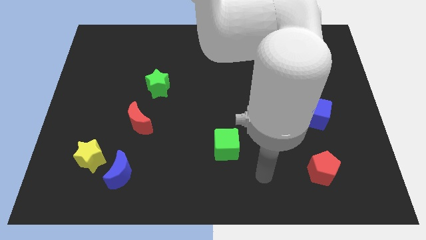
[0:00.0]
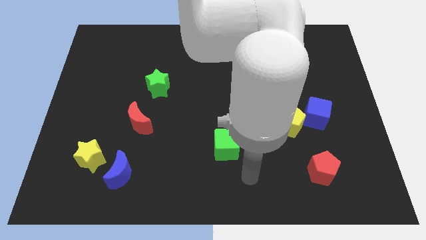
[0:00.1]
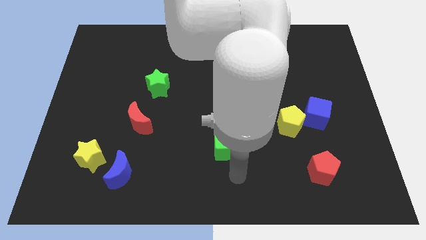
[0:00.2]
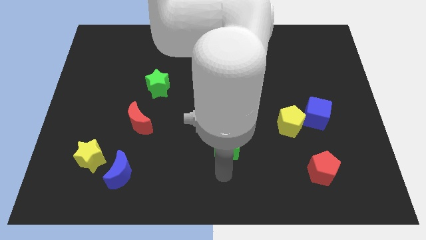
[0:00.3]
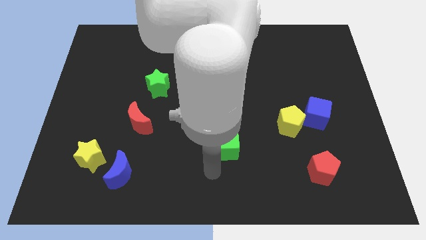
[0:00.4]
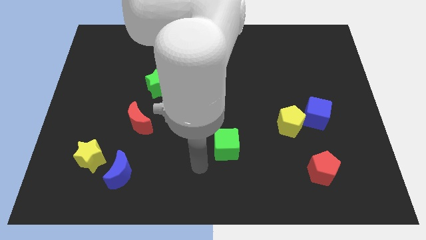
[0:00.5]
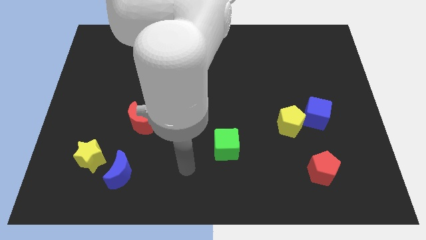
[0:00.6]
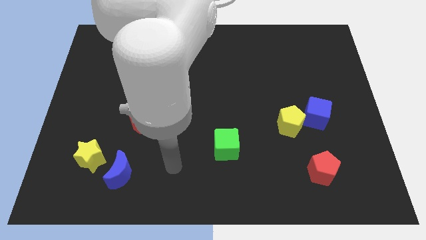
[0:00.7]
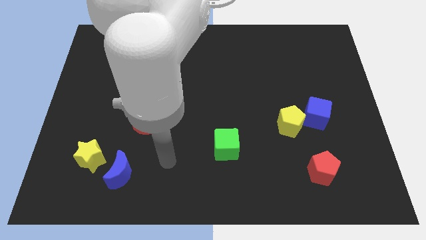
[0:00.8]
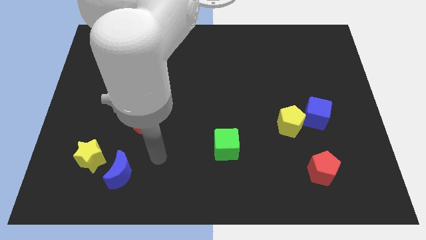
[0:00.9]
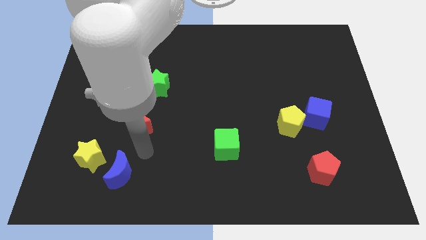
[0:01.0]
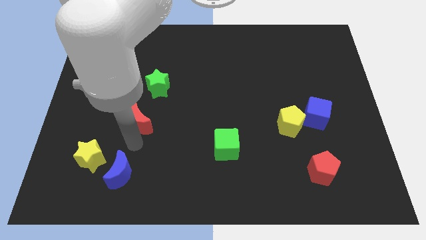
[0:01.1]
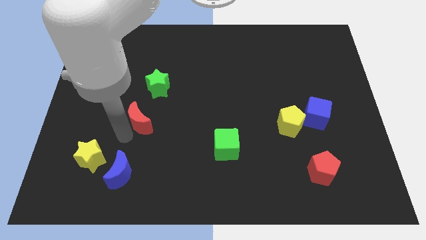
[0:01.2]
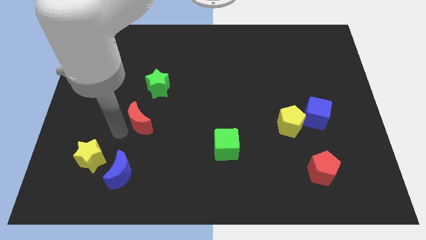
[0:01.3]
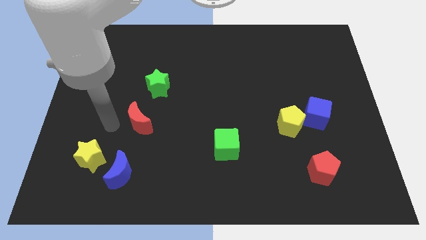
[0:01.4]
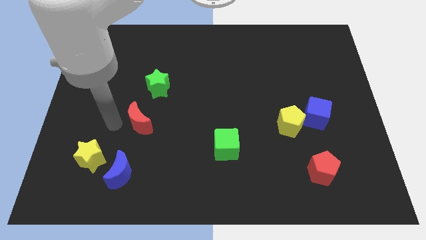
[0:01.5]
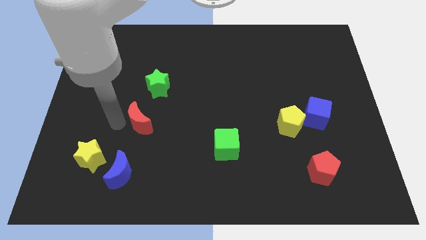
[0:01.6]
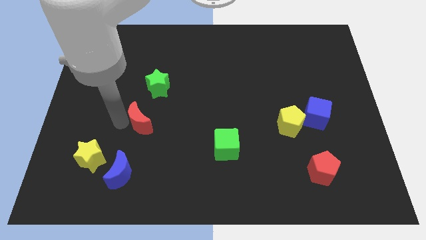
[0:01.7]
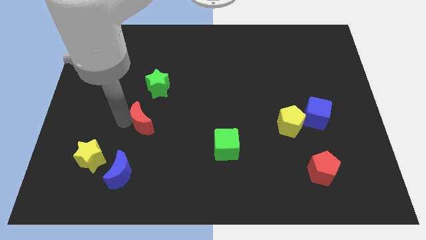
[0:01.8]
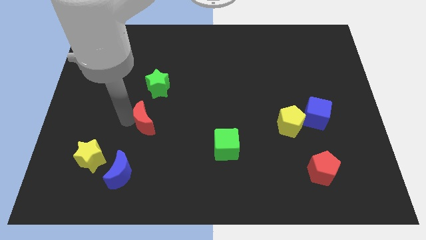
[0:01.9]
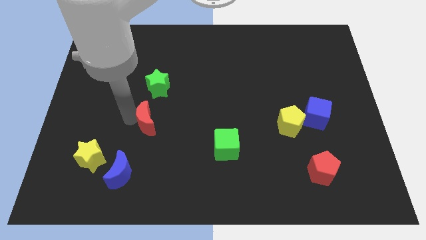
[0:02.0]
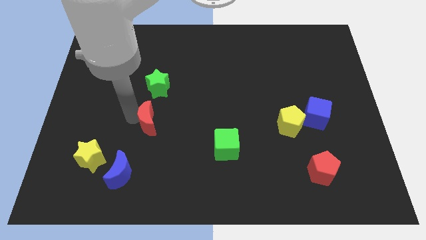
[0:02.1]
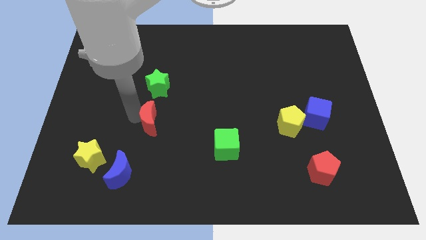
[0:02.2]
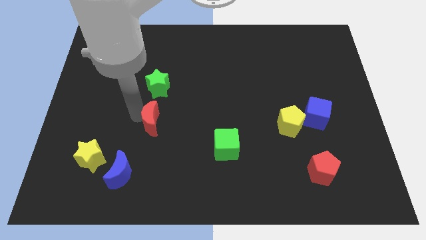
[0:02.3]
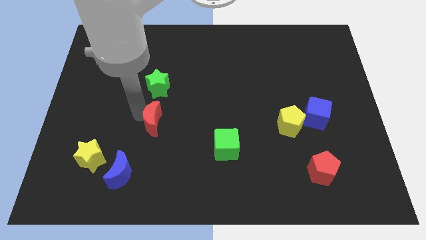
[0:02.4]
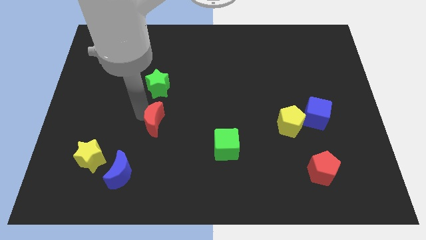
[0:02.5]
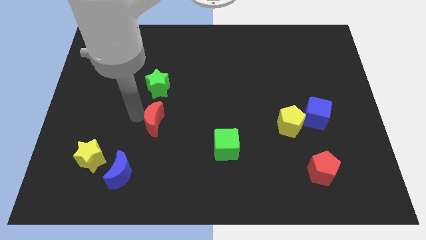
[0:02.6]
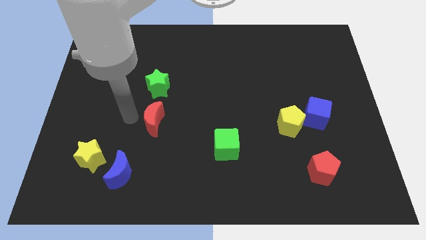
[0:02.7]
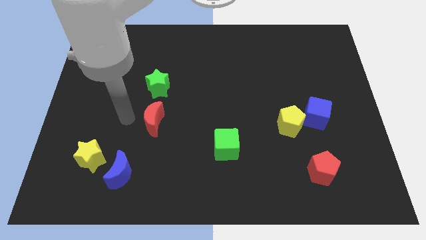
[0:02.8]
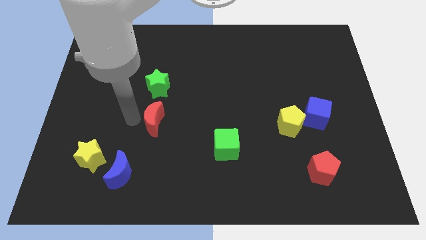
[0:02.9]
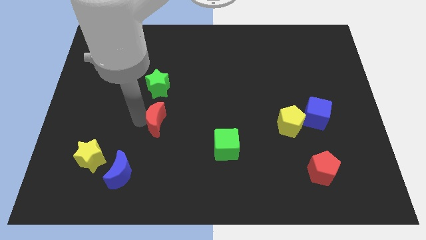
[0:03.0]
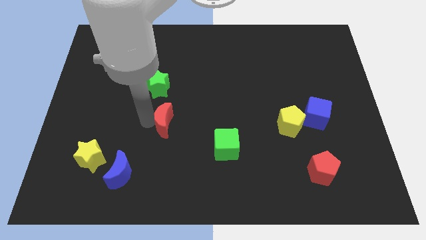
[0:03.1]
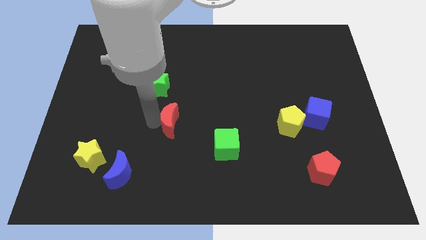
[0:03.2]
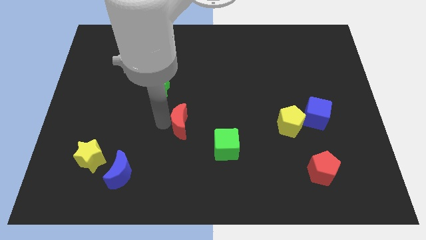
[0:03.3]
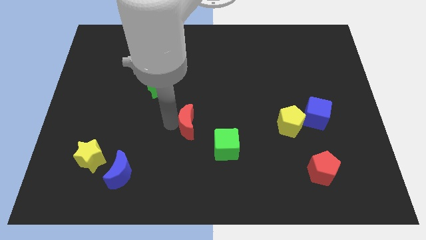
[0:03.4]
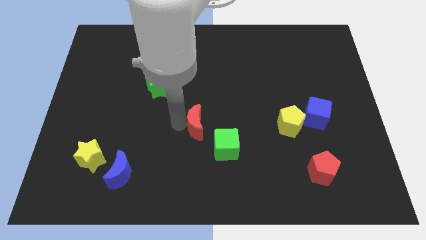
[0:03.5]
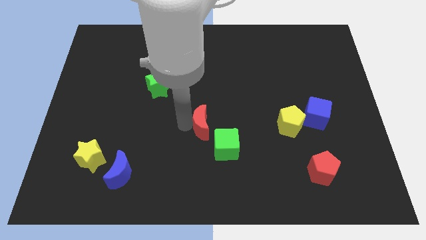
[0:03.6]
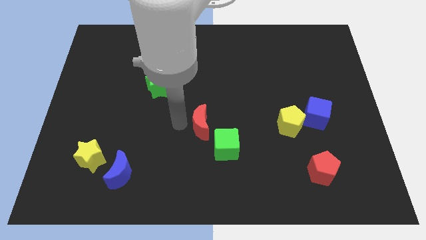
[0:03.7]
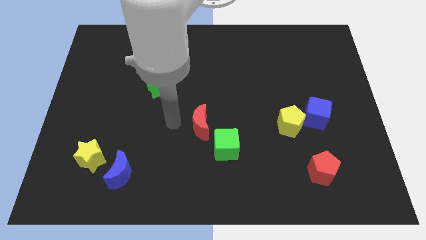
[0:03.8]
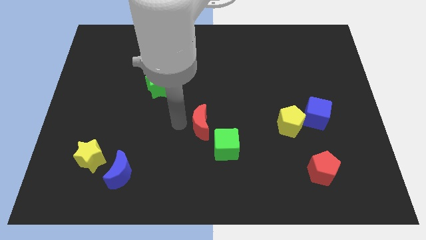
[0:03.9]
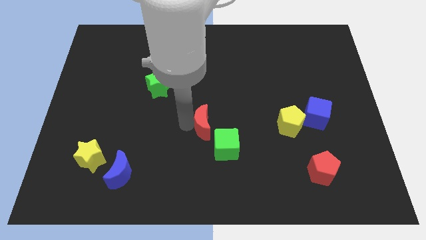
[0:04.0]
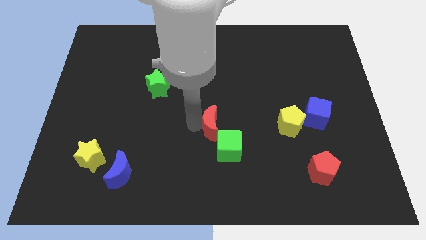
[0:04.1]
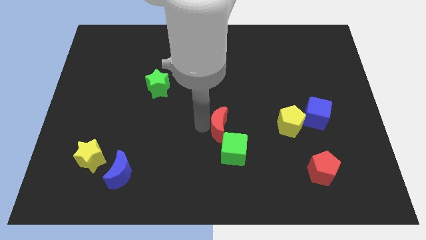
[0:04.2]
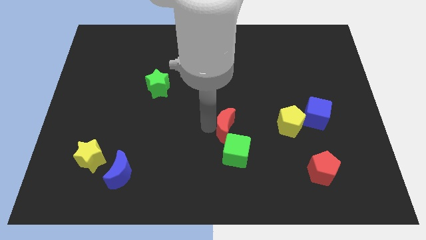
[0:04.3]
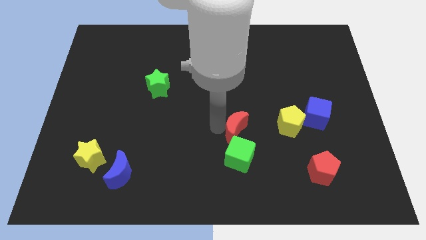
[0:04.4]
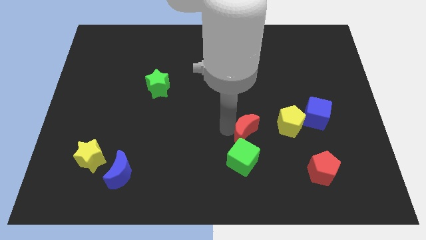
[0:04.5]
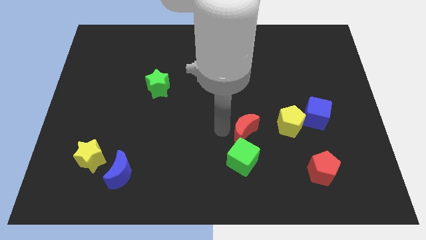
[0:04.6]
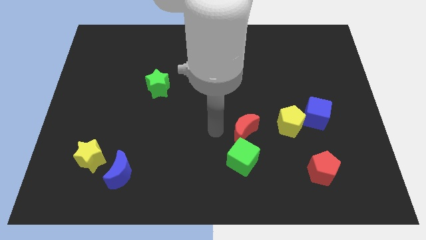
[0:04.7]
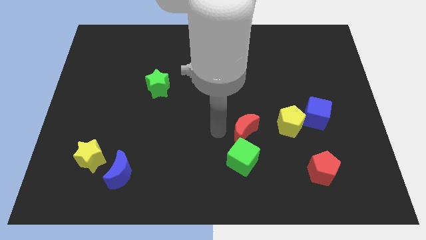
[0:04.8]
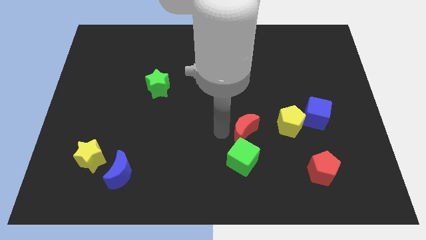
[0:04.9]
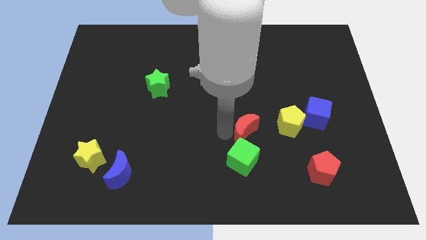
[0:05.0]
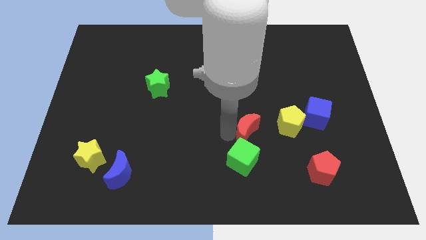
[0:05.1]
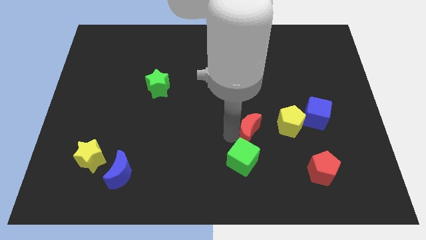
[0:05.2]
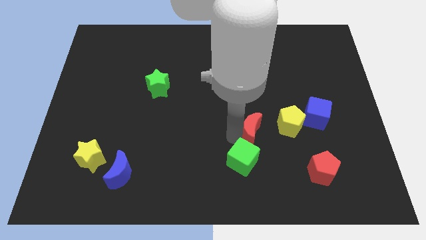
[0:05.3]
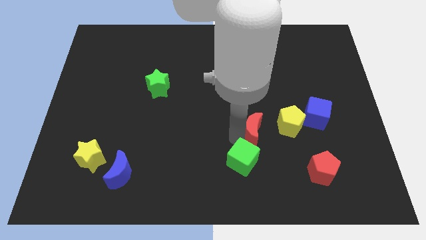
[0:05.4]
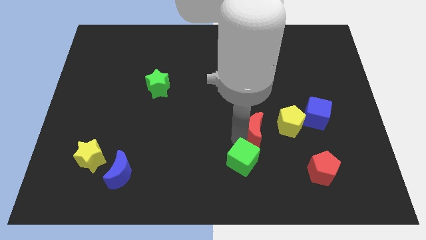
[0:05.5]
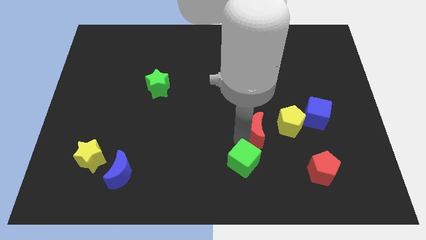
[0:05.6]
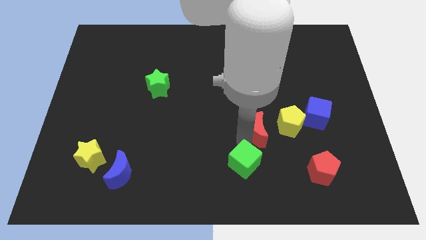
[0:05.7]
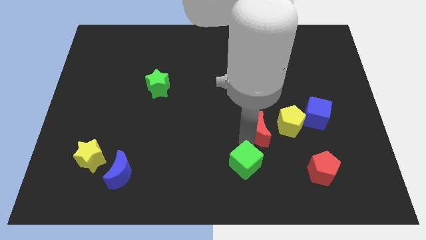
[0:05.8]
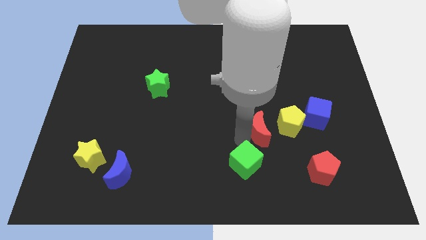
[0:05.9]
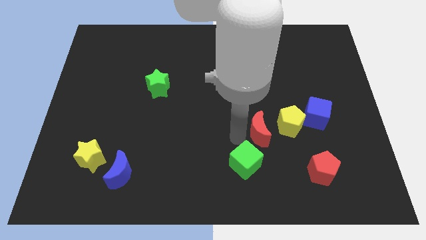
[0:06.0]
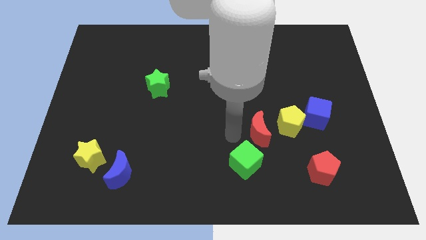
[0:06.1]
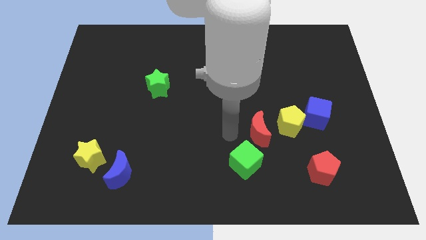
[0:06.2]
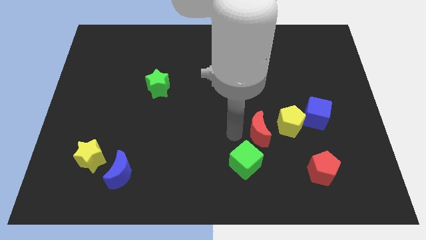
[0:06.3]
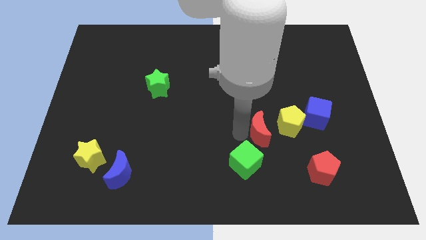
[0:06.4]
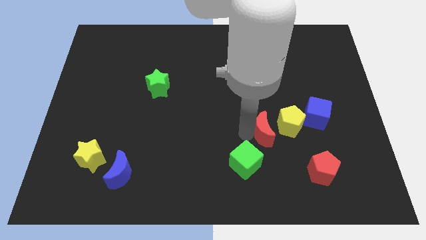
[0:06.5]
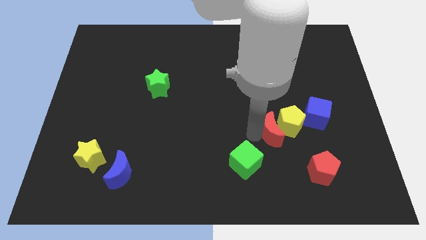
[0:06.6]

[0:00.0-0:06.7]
slide the red moon towards the yellow pentagon

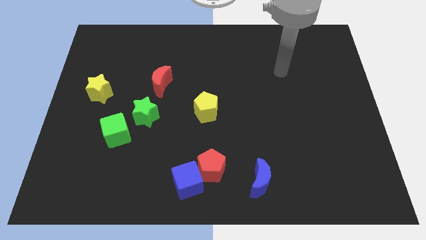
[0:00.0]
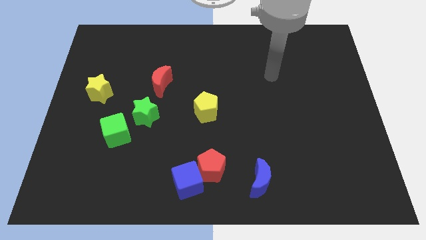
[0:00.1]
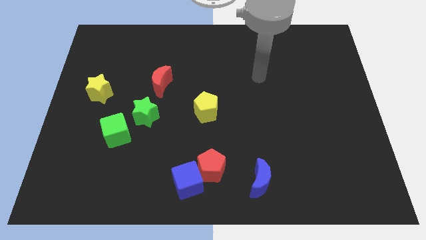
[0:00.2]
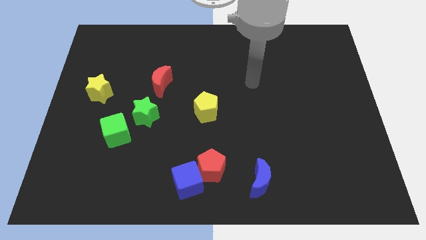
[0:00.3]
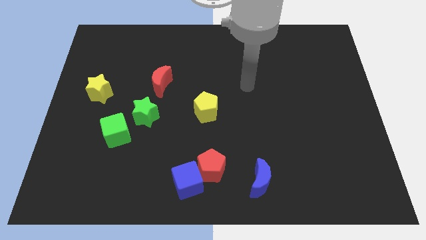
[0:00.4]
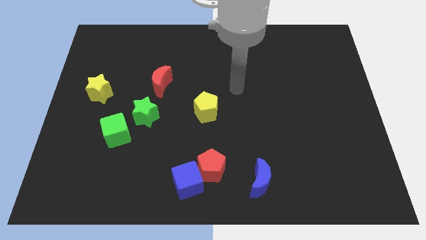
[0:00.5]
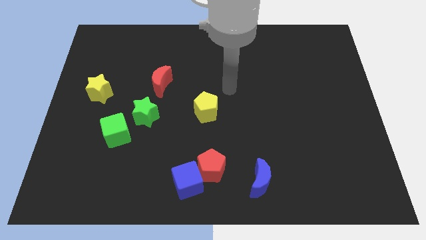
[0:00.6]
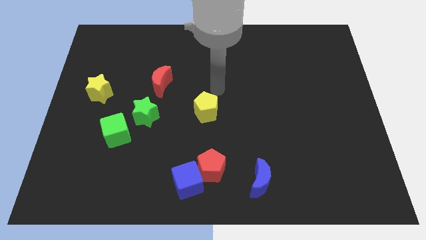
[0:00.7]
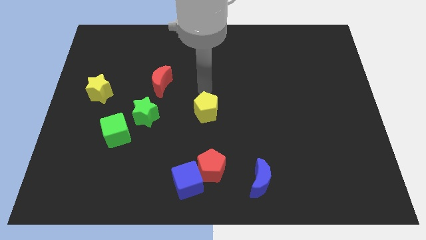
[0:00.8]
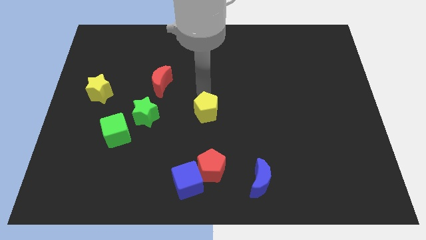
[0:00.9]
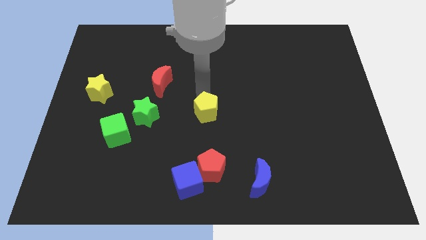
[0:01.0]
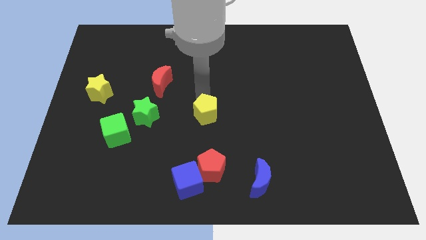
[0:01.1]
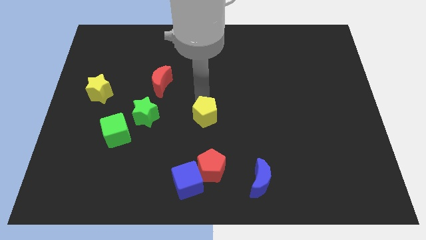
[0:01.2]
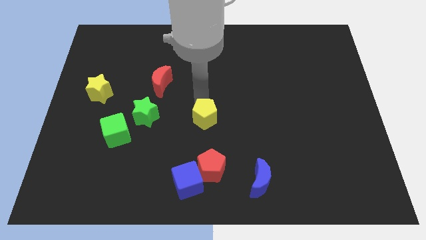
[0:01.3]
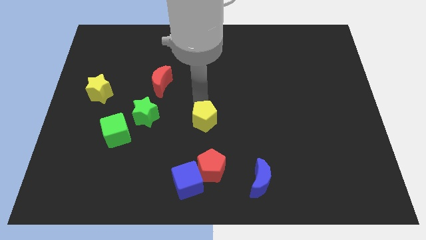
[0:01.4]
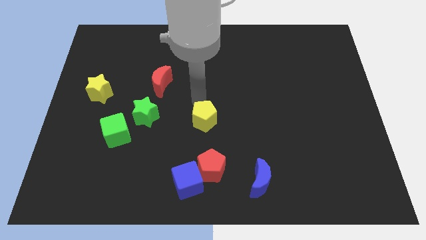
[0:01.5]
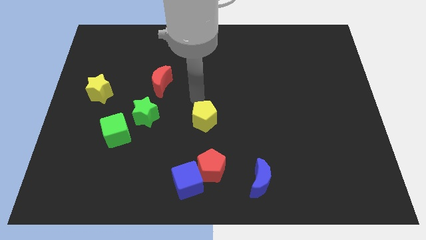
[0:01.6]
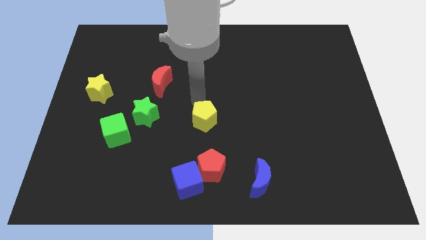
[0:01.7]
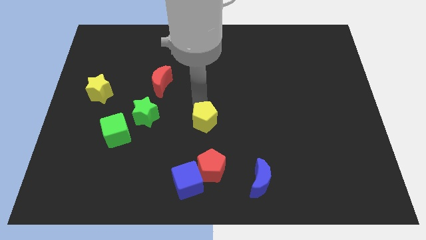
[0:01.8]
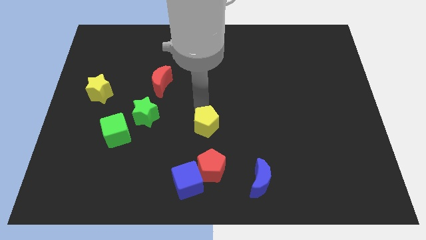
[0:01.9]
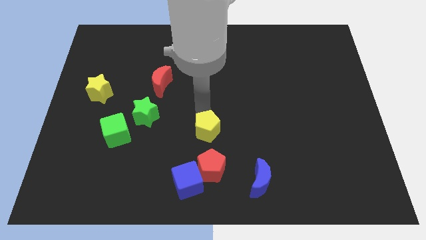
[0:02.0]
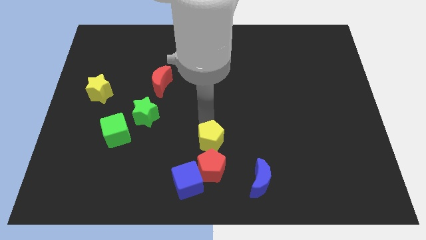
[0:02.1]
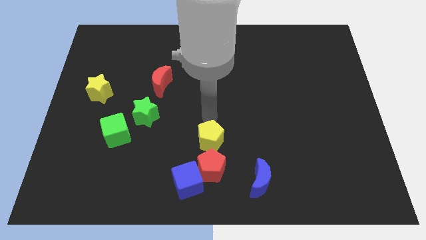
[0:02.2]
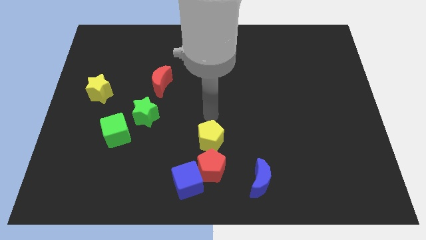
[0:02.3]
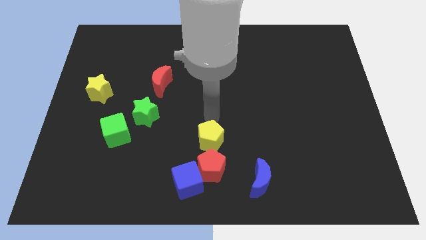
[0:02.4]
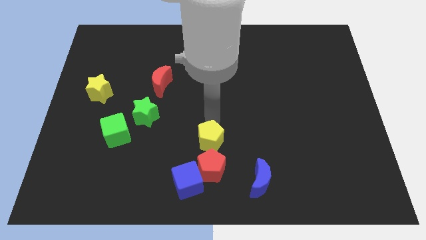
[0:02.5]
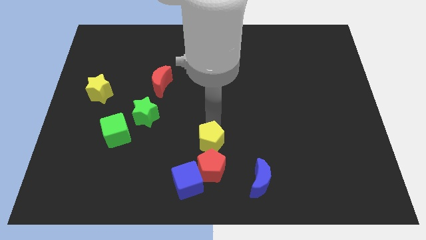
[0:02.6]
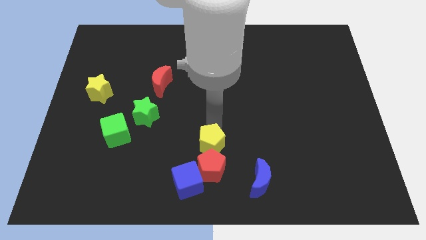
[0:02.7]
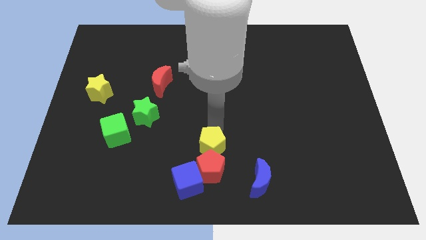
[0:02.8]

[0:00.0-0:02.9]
slide the yellow pentagon close to the red pentagon
